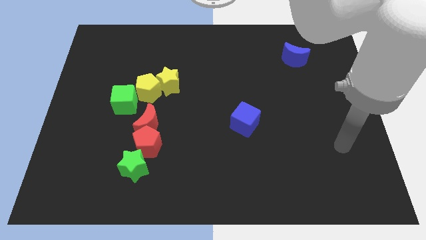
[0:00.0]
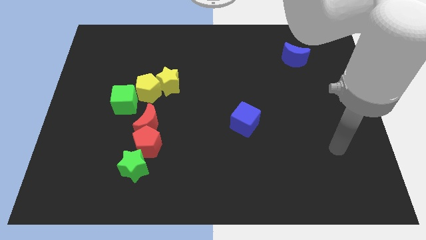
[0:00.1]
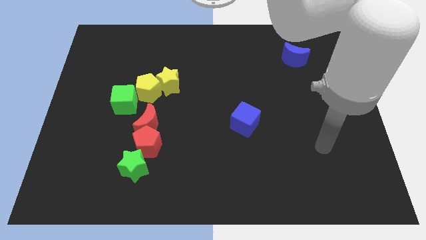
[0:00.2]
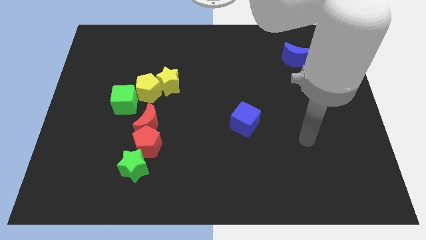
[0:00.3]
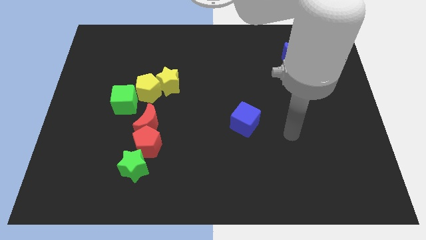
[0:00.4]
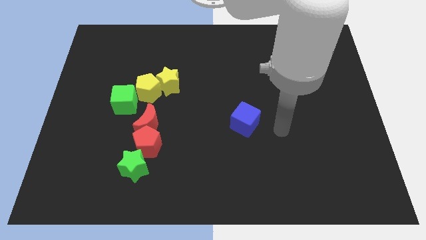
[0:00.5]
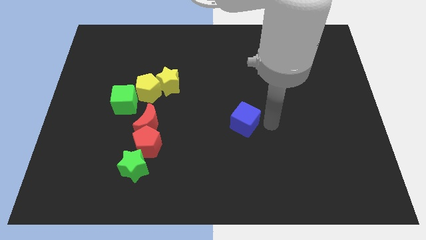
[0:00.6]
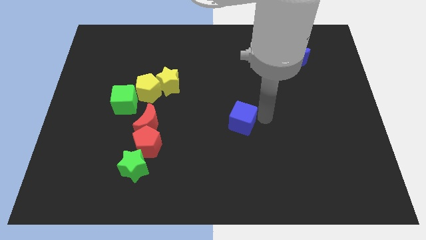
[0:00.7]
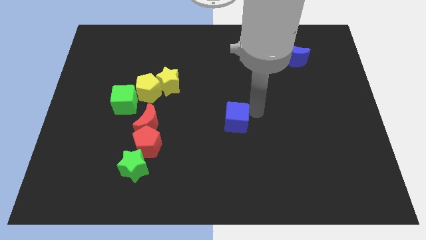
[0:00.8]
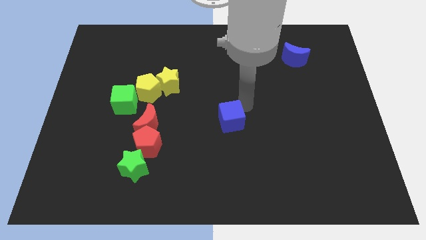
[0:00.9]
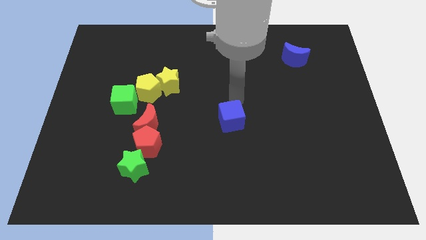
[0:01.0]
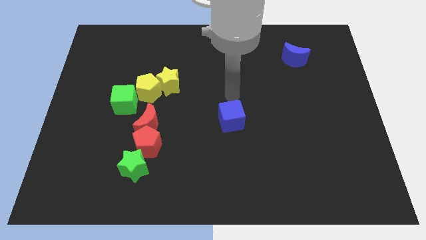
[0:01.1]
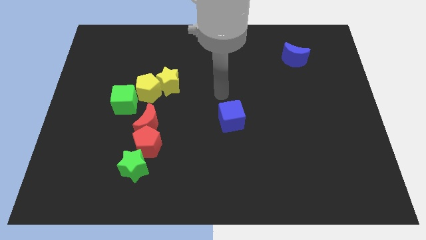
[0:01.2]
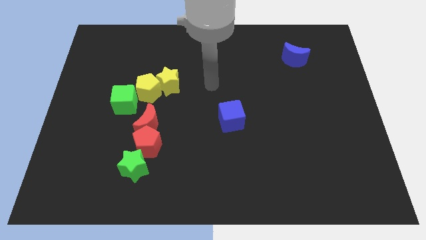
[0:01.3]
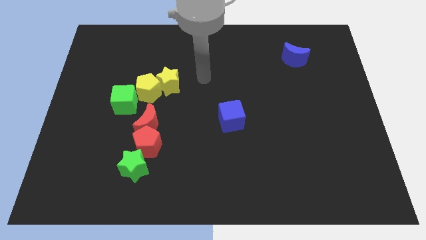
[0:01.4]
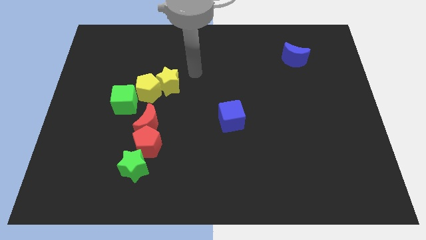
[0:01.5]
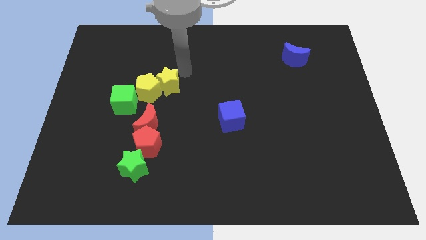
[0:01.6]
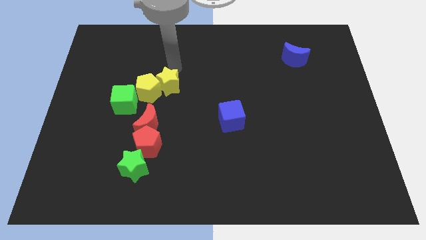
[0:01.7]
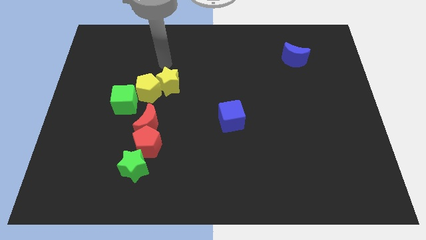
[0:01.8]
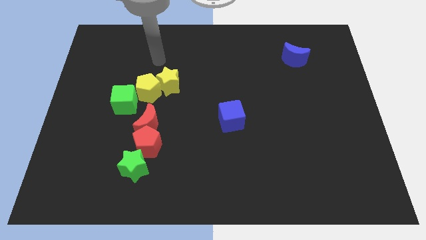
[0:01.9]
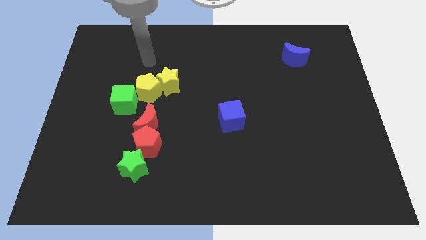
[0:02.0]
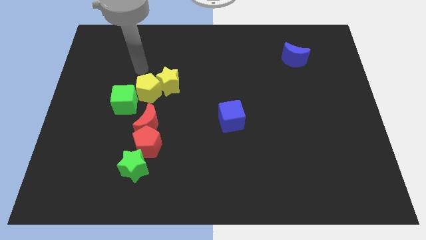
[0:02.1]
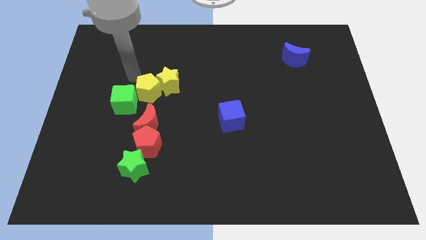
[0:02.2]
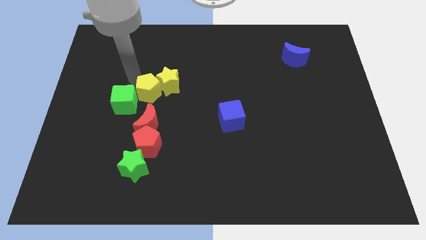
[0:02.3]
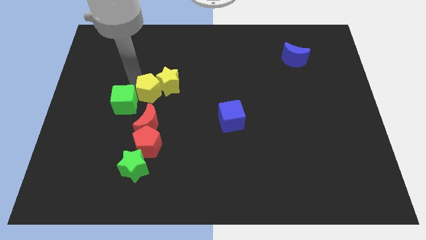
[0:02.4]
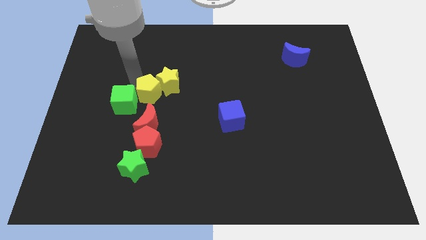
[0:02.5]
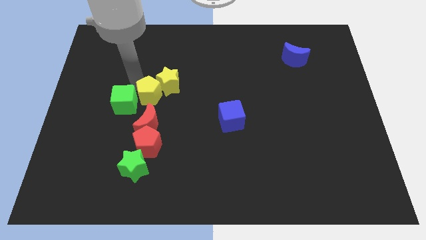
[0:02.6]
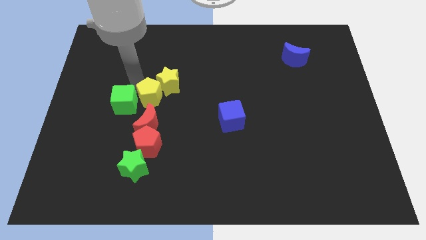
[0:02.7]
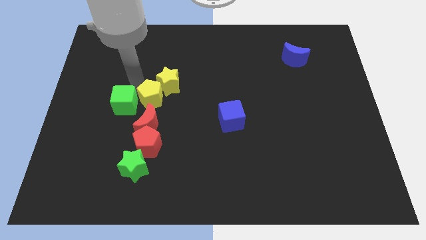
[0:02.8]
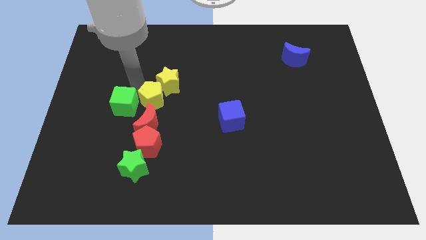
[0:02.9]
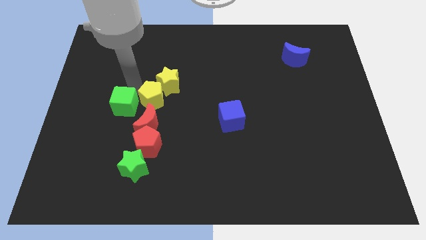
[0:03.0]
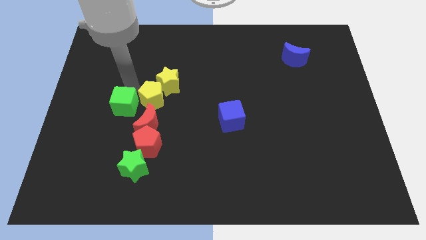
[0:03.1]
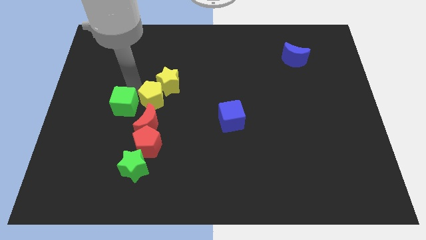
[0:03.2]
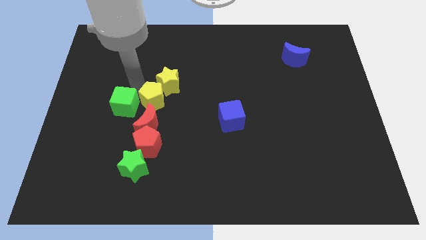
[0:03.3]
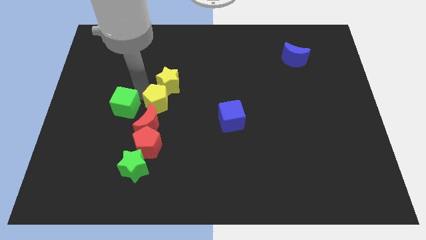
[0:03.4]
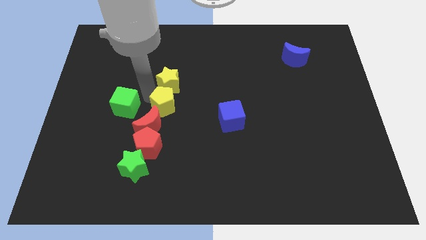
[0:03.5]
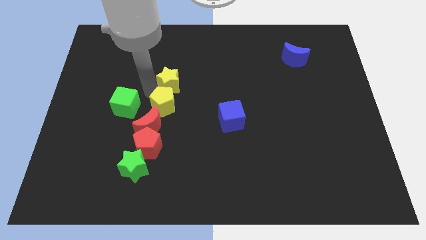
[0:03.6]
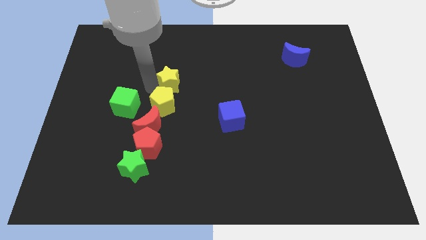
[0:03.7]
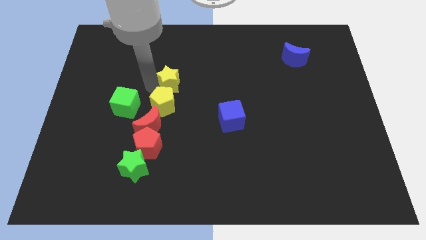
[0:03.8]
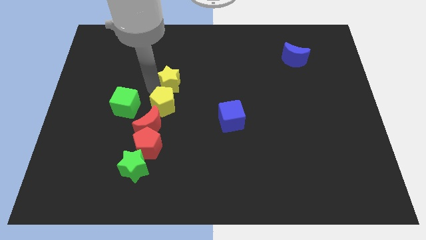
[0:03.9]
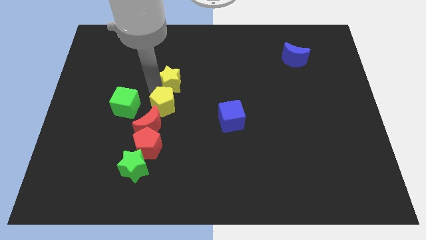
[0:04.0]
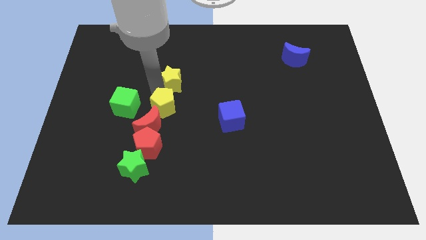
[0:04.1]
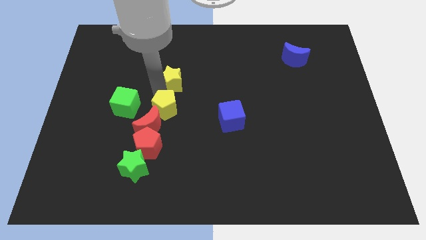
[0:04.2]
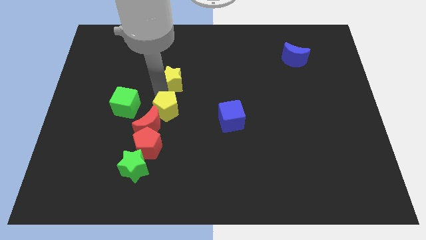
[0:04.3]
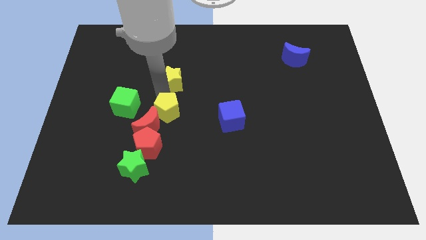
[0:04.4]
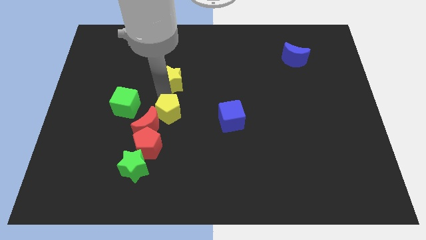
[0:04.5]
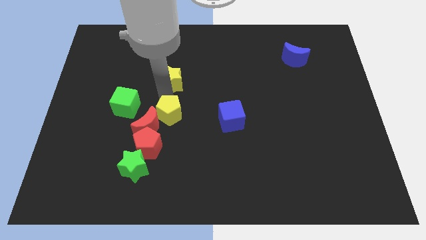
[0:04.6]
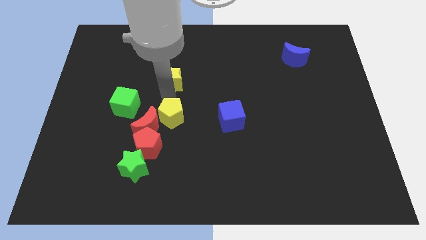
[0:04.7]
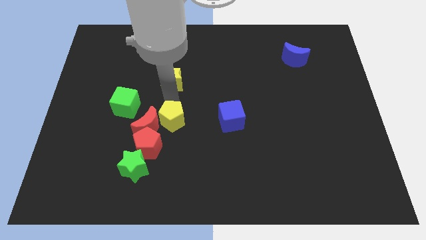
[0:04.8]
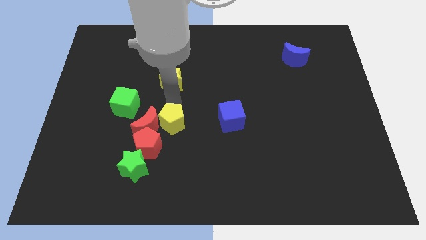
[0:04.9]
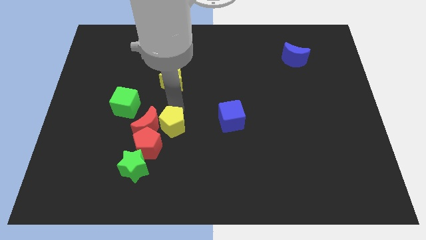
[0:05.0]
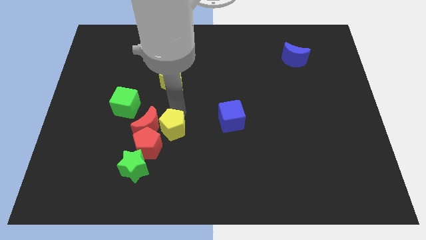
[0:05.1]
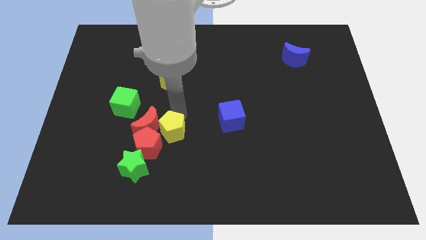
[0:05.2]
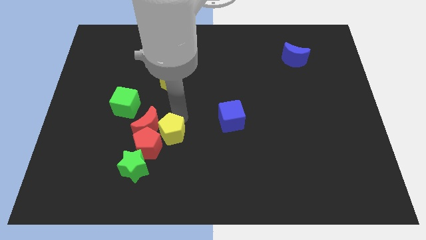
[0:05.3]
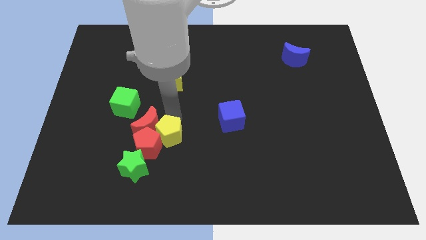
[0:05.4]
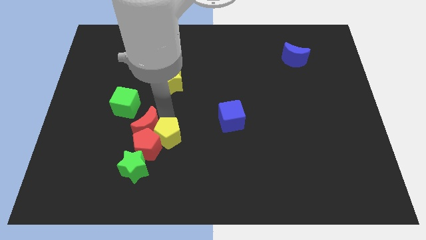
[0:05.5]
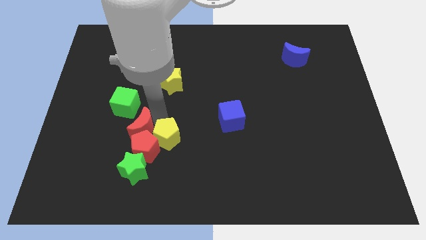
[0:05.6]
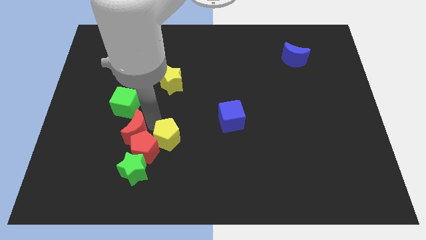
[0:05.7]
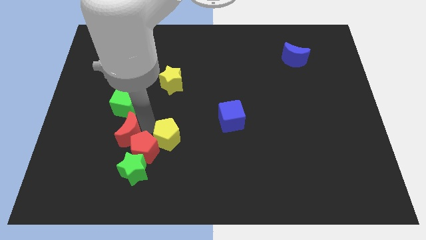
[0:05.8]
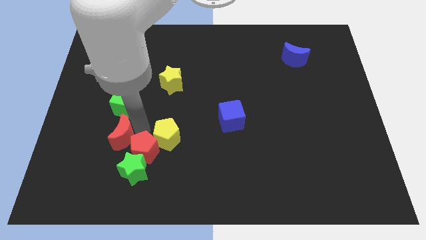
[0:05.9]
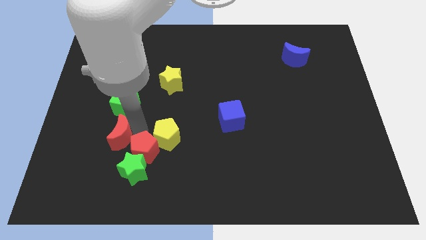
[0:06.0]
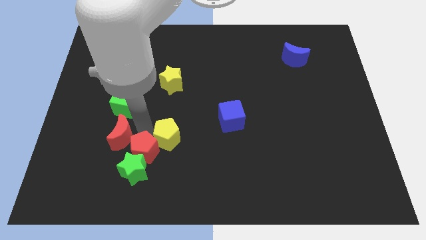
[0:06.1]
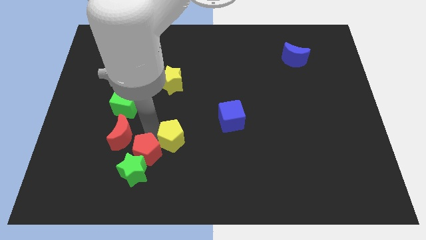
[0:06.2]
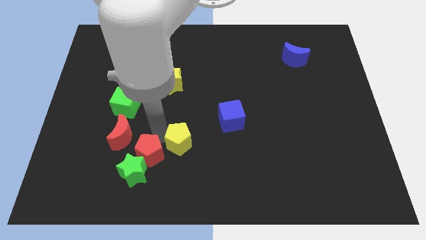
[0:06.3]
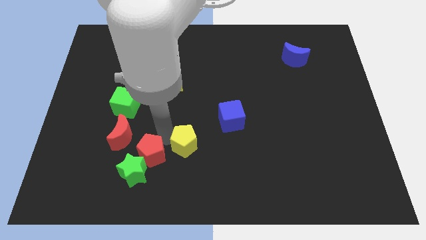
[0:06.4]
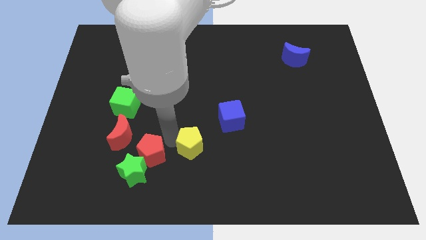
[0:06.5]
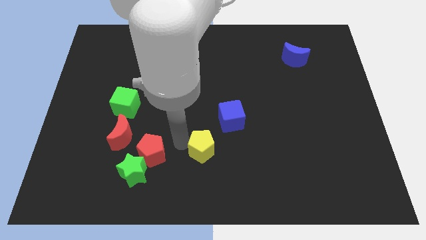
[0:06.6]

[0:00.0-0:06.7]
move the yellow pentagon down and right diagonally

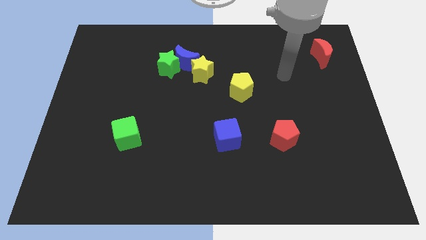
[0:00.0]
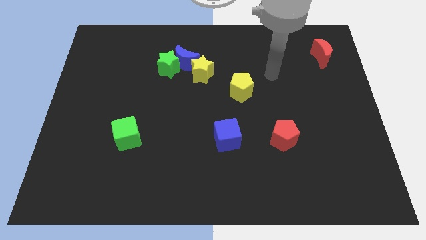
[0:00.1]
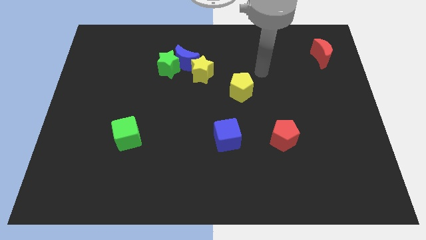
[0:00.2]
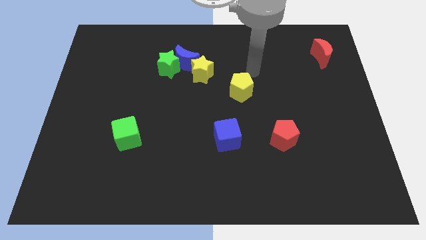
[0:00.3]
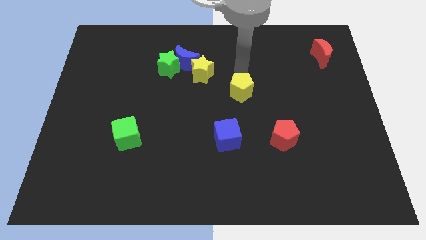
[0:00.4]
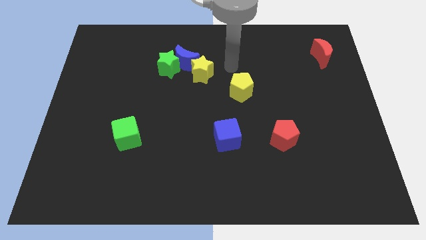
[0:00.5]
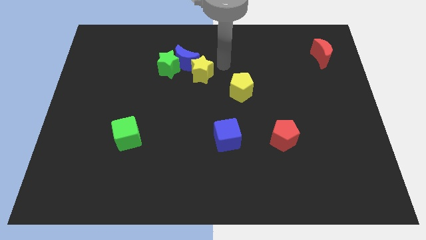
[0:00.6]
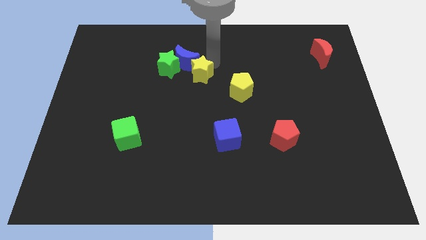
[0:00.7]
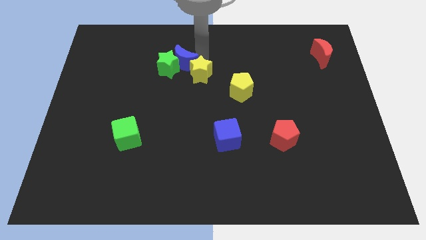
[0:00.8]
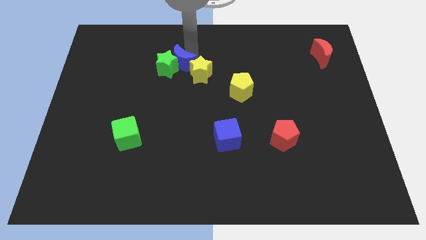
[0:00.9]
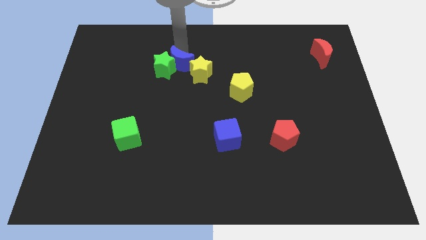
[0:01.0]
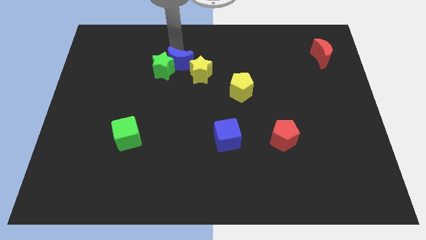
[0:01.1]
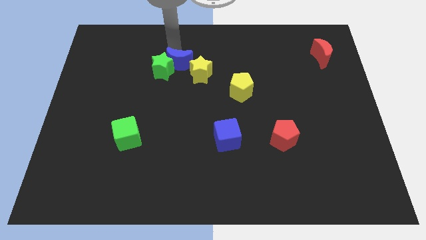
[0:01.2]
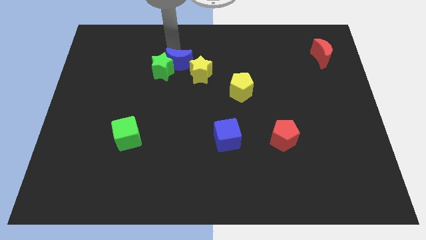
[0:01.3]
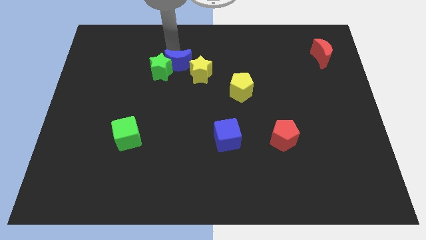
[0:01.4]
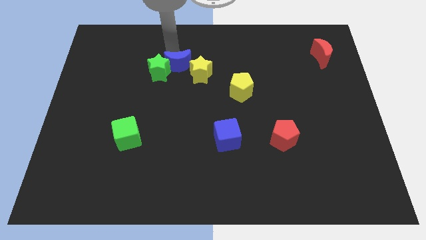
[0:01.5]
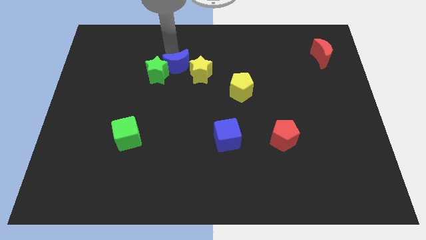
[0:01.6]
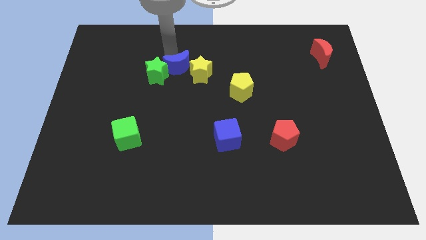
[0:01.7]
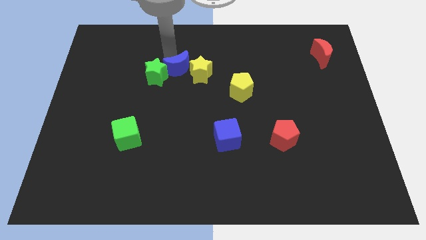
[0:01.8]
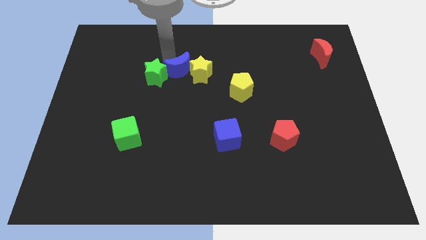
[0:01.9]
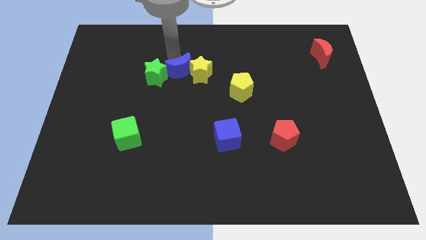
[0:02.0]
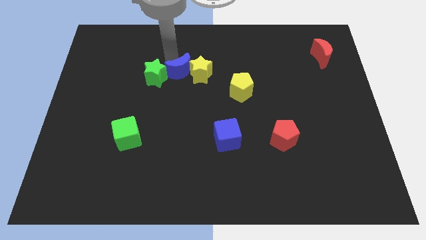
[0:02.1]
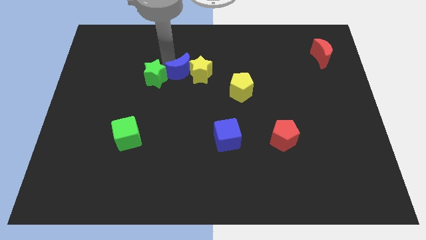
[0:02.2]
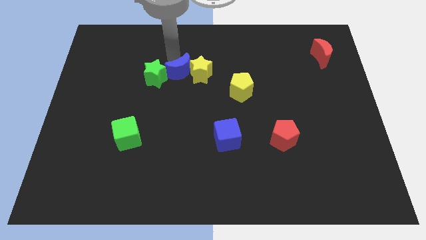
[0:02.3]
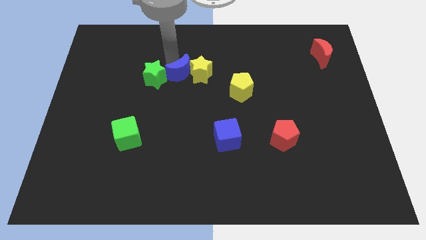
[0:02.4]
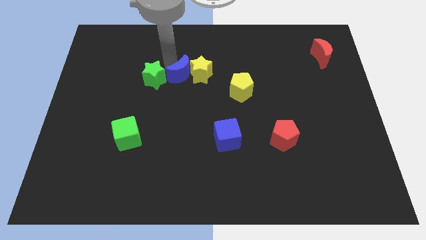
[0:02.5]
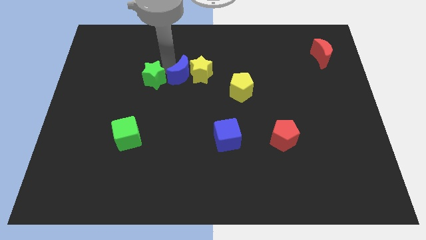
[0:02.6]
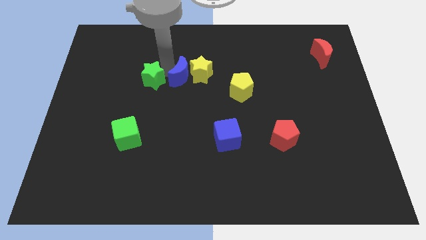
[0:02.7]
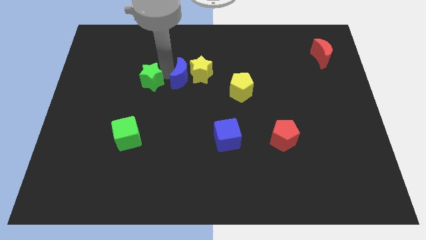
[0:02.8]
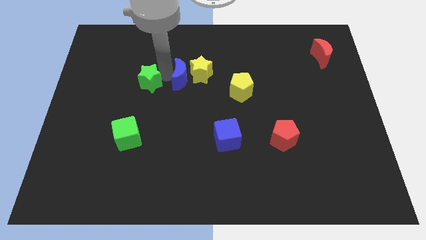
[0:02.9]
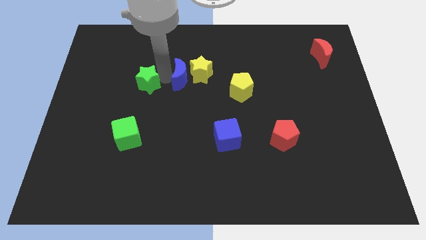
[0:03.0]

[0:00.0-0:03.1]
move the green star slightly downwards and to the left diagonally
